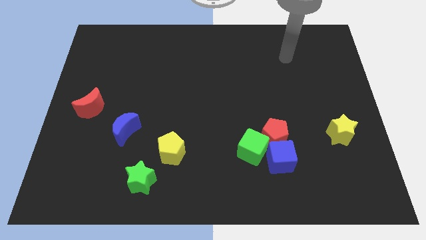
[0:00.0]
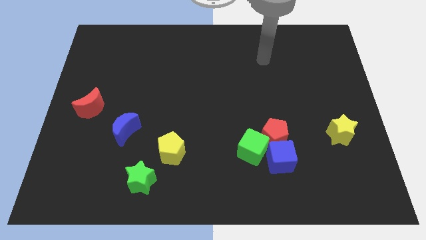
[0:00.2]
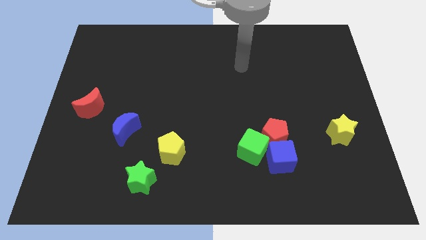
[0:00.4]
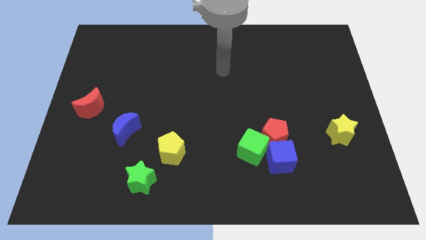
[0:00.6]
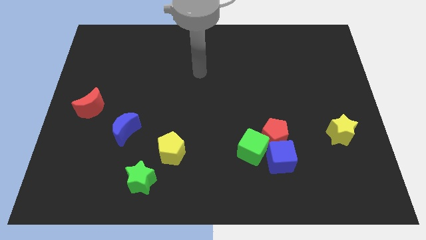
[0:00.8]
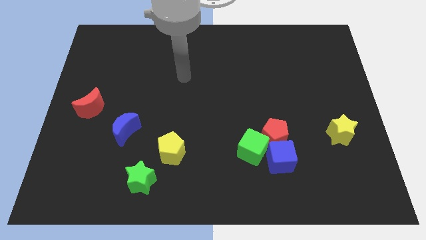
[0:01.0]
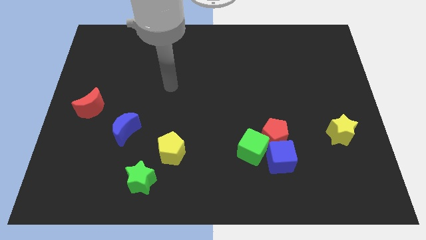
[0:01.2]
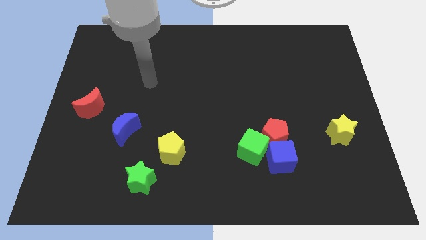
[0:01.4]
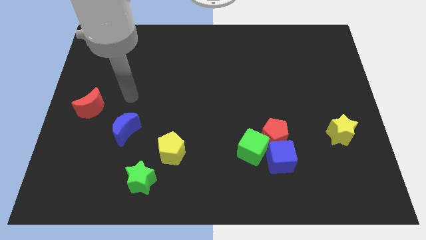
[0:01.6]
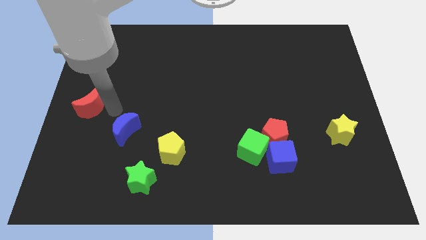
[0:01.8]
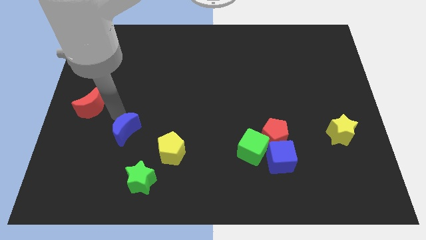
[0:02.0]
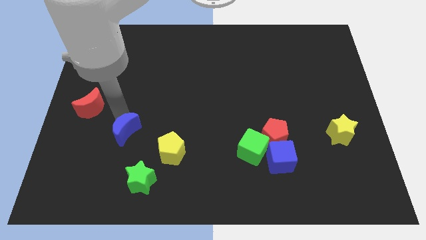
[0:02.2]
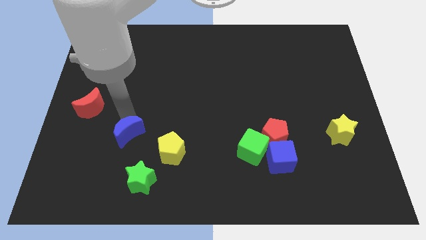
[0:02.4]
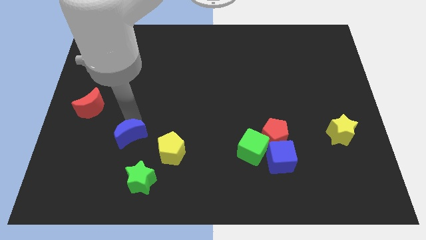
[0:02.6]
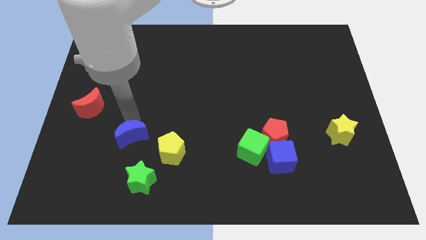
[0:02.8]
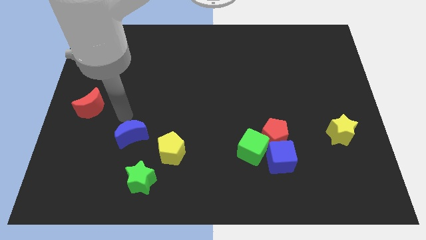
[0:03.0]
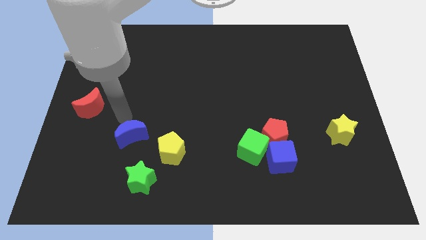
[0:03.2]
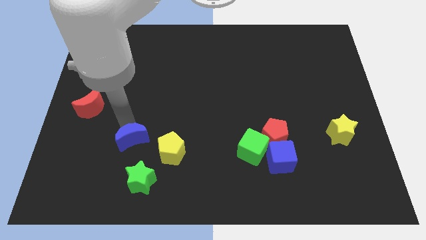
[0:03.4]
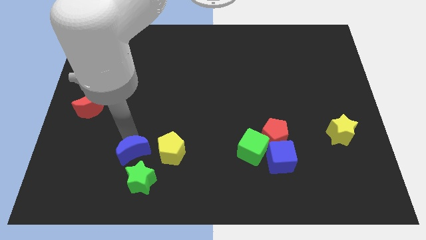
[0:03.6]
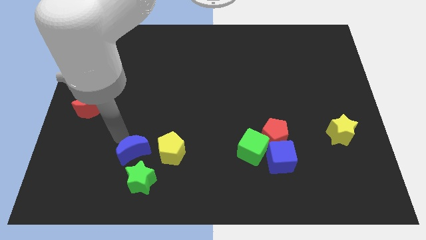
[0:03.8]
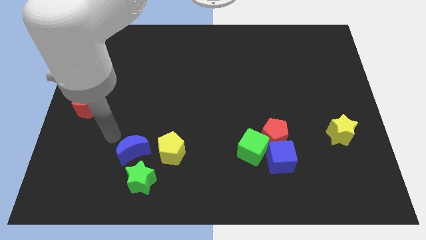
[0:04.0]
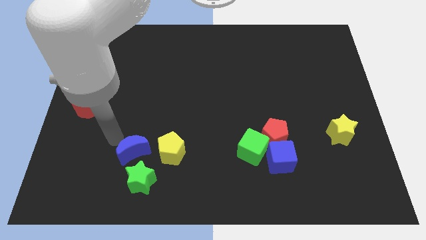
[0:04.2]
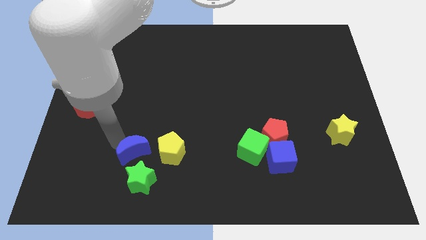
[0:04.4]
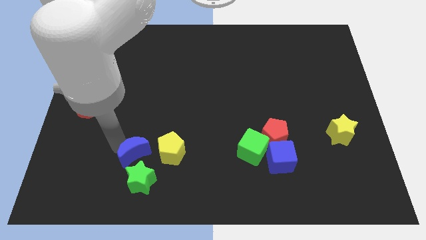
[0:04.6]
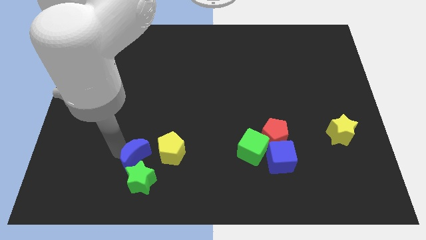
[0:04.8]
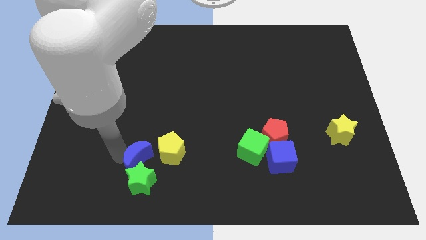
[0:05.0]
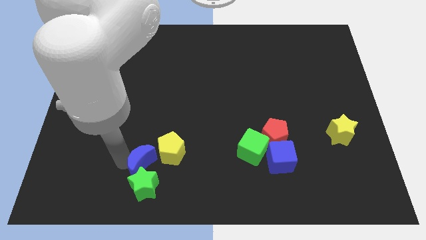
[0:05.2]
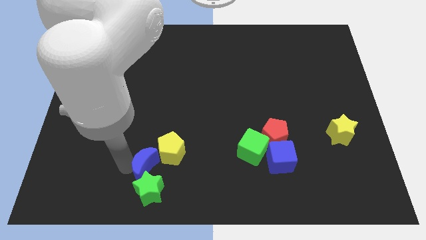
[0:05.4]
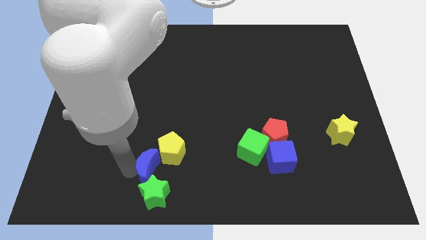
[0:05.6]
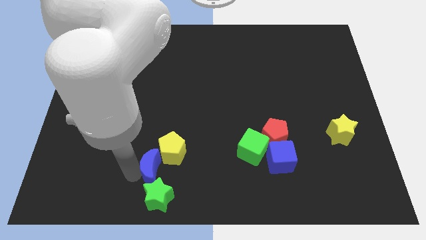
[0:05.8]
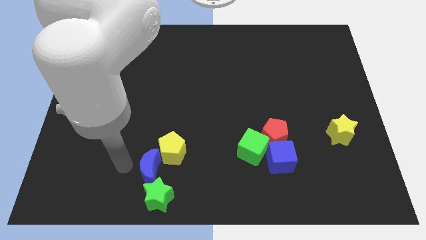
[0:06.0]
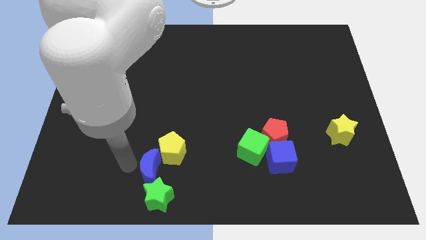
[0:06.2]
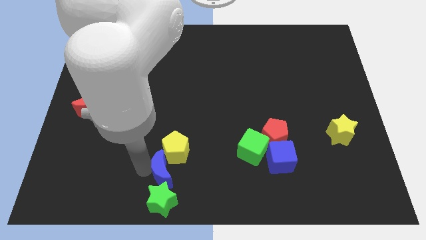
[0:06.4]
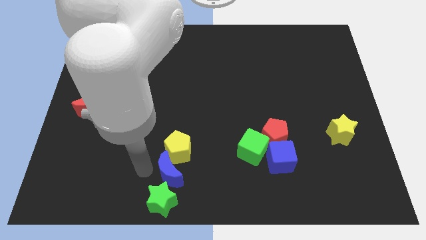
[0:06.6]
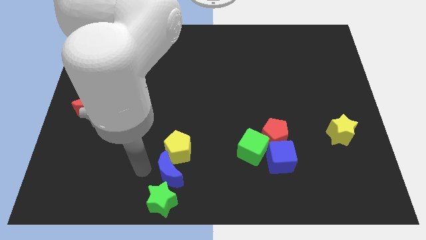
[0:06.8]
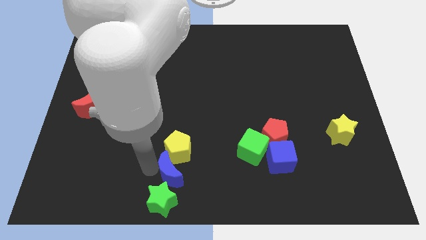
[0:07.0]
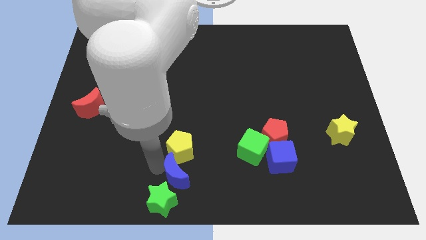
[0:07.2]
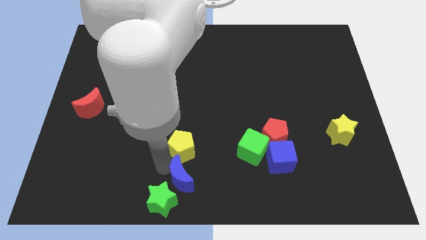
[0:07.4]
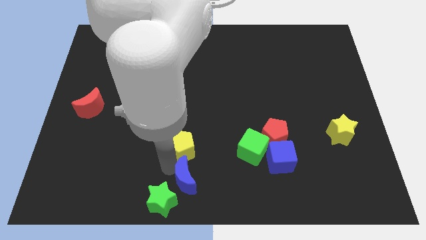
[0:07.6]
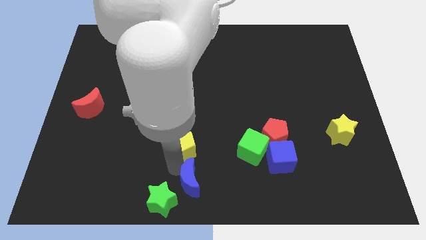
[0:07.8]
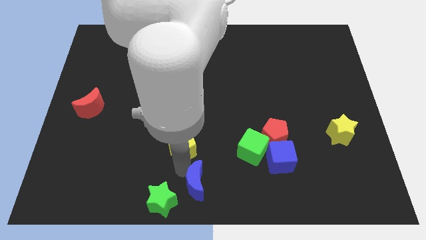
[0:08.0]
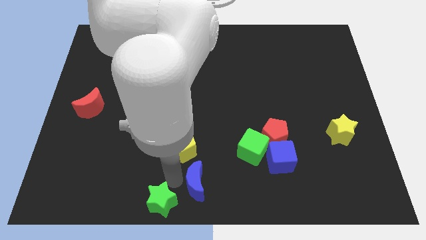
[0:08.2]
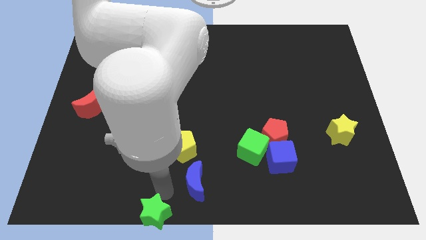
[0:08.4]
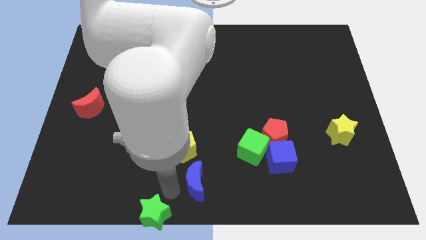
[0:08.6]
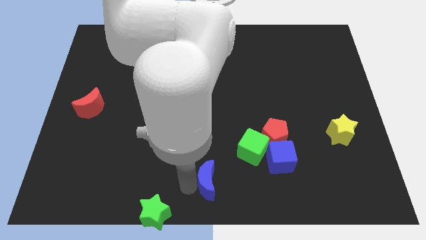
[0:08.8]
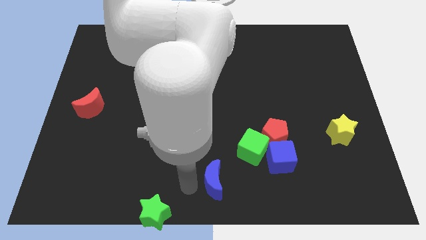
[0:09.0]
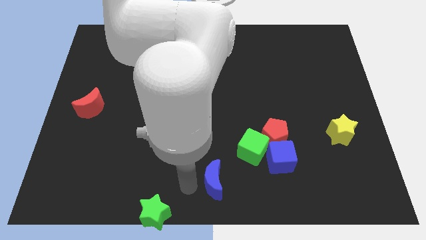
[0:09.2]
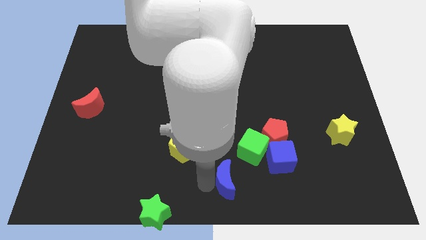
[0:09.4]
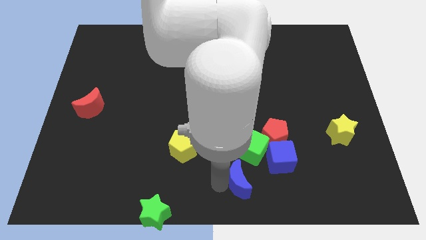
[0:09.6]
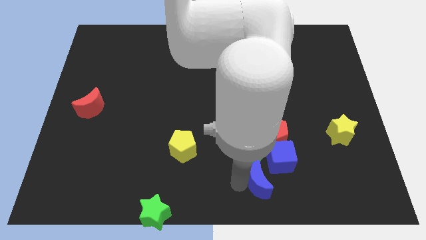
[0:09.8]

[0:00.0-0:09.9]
push the blue moon to the bottom side of the red pentagon

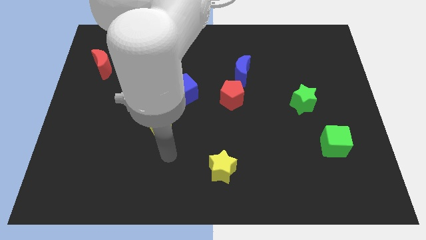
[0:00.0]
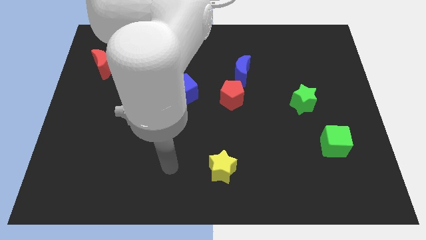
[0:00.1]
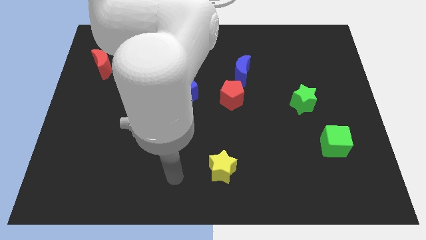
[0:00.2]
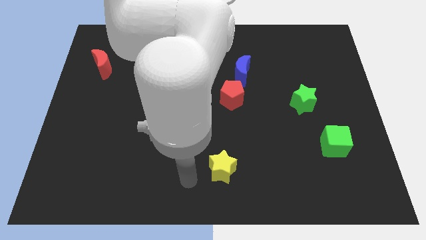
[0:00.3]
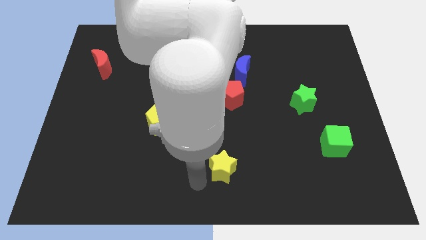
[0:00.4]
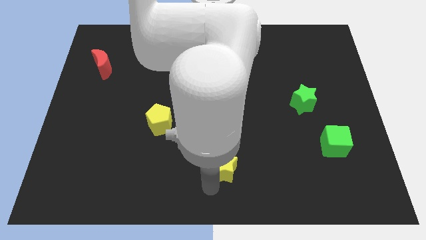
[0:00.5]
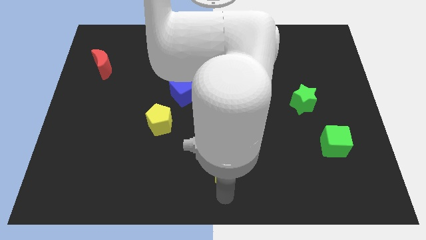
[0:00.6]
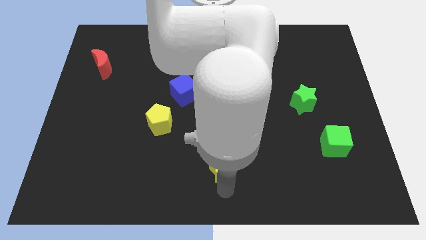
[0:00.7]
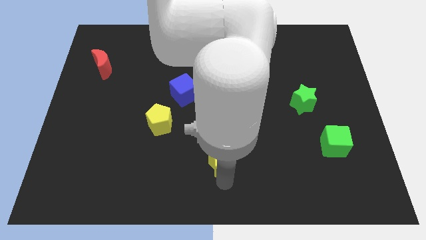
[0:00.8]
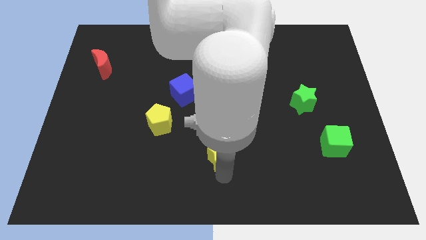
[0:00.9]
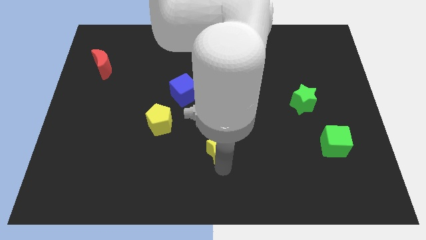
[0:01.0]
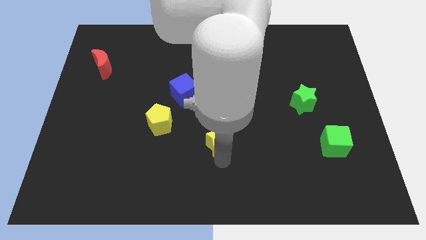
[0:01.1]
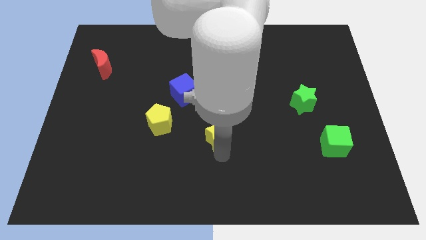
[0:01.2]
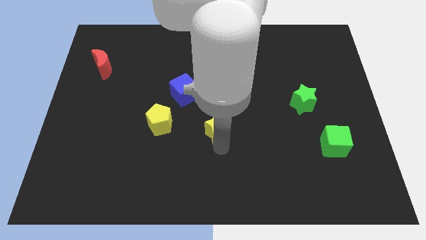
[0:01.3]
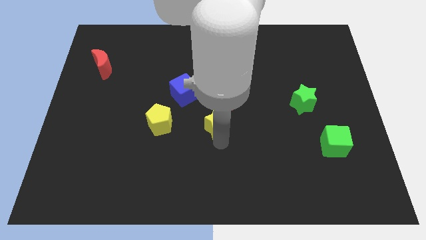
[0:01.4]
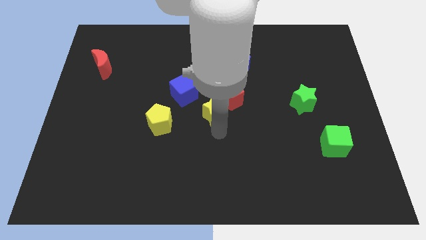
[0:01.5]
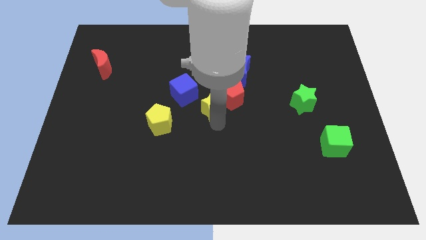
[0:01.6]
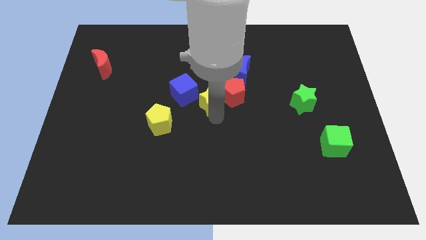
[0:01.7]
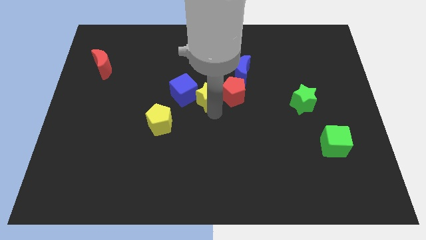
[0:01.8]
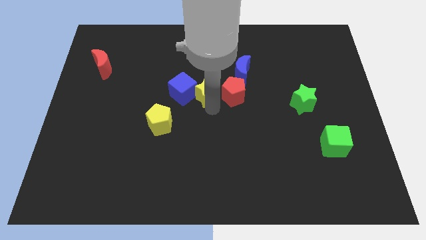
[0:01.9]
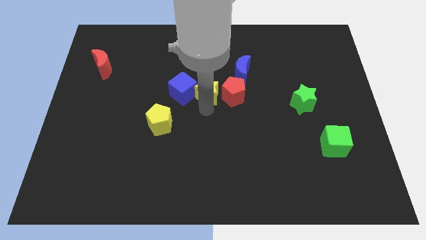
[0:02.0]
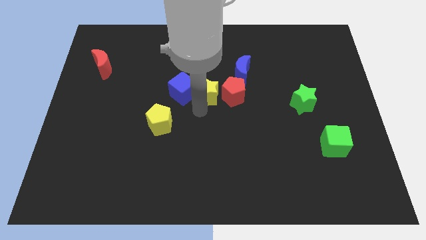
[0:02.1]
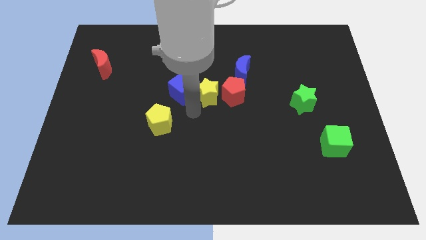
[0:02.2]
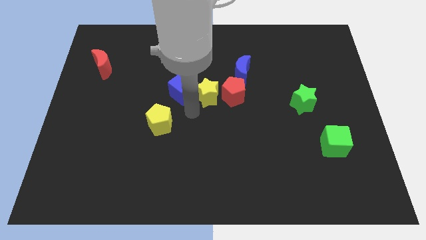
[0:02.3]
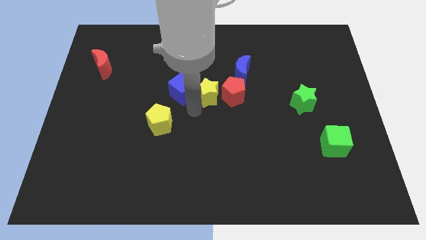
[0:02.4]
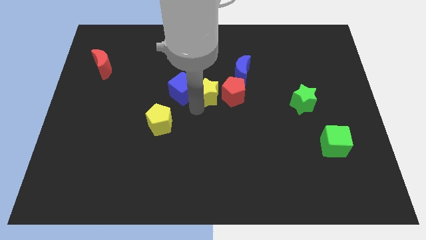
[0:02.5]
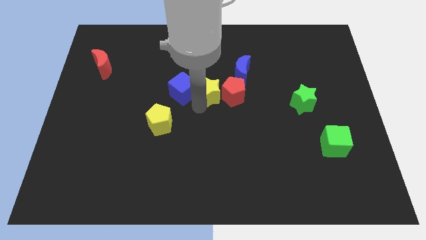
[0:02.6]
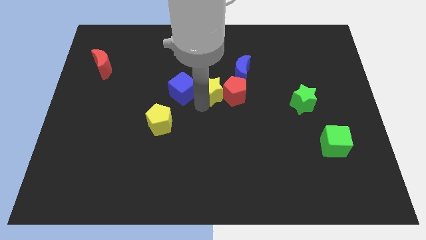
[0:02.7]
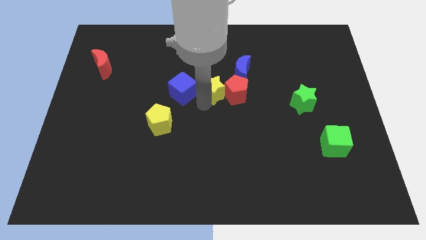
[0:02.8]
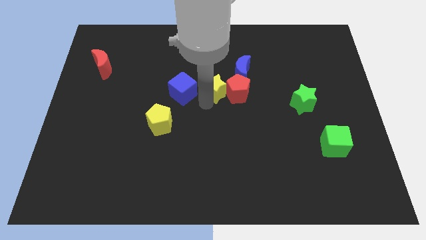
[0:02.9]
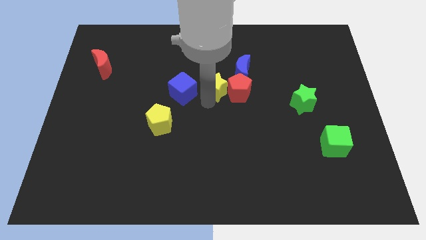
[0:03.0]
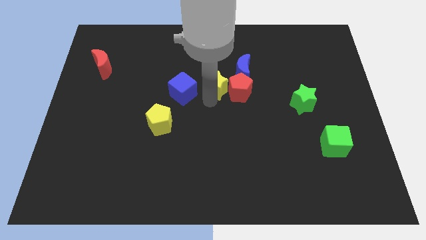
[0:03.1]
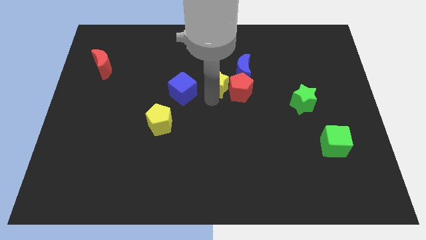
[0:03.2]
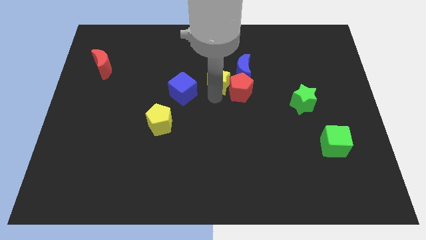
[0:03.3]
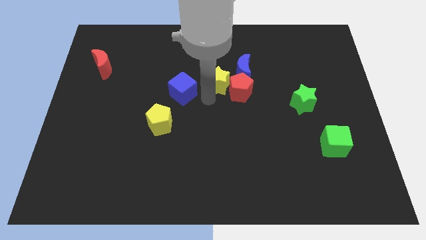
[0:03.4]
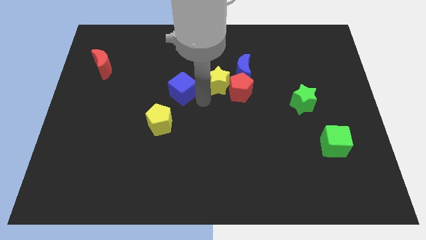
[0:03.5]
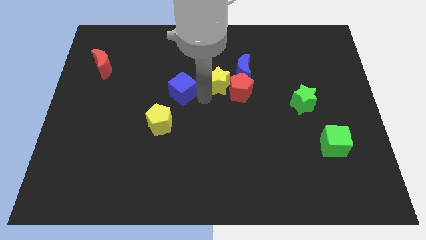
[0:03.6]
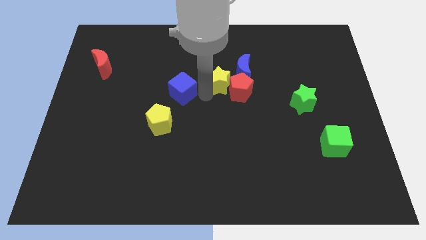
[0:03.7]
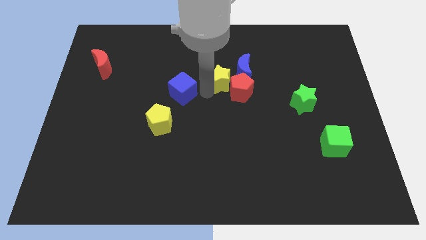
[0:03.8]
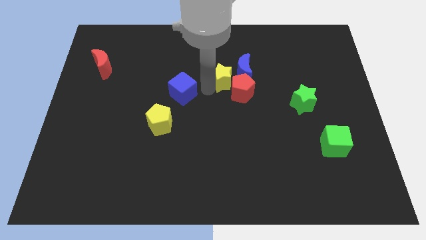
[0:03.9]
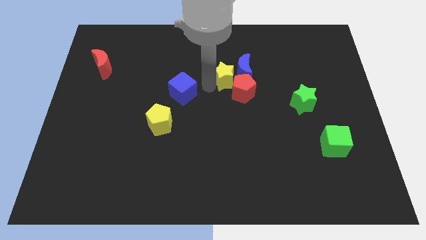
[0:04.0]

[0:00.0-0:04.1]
slide the yellow star to the top side of the red pentagon
